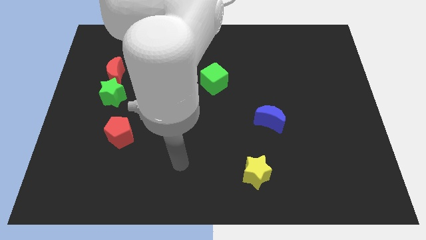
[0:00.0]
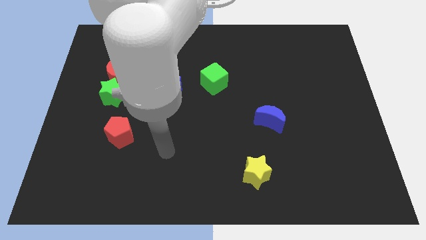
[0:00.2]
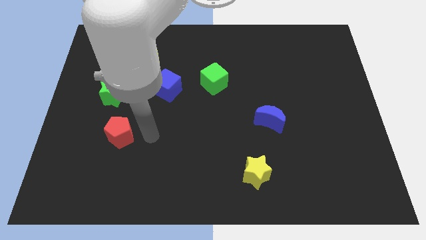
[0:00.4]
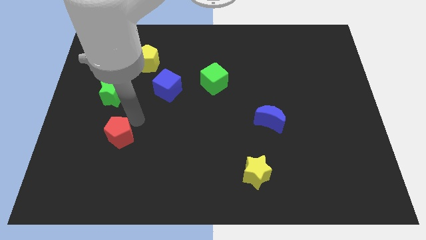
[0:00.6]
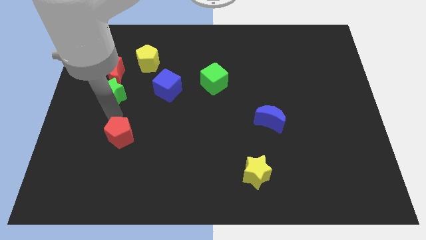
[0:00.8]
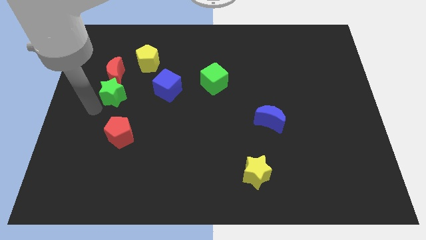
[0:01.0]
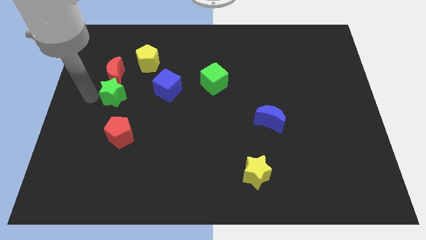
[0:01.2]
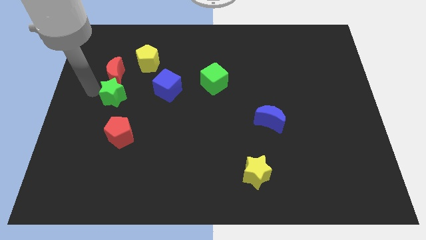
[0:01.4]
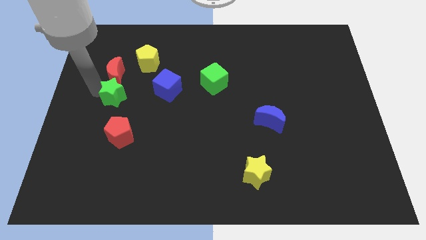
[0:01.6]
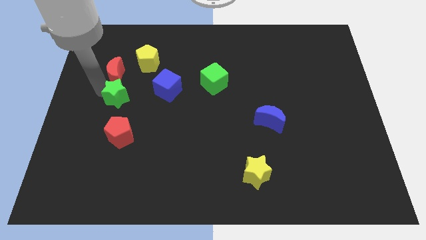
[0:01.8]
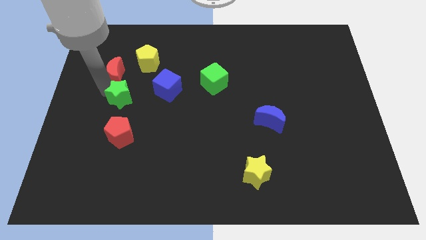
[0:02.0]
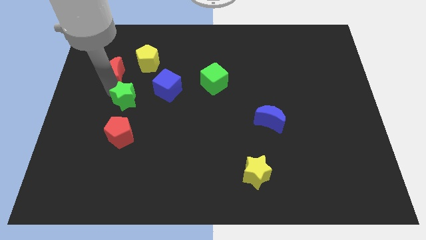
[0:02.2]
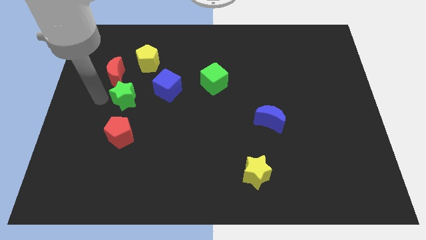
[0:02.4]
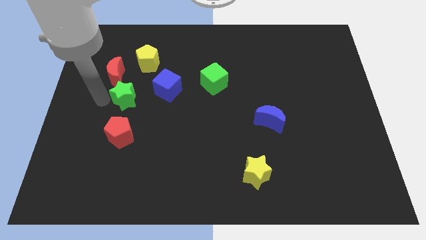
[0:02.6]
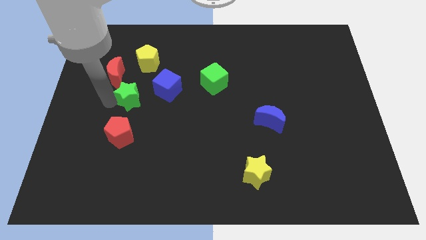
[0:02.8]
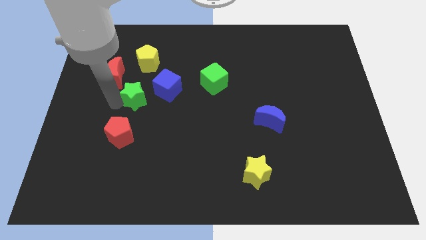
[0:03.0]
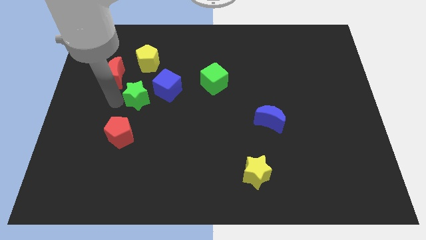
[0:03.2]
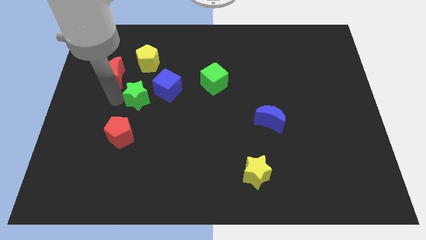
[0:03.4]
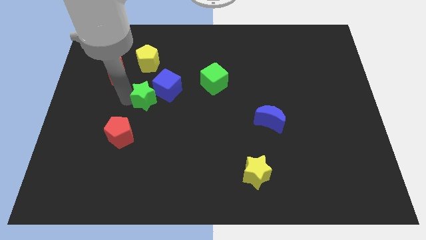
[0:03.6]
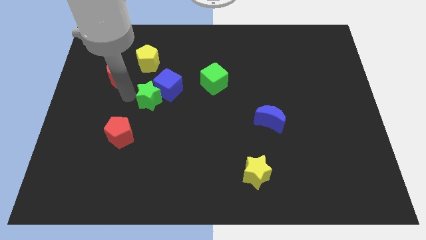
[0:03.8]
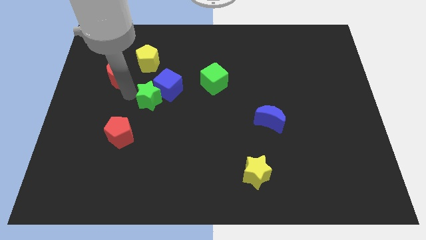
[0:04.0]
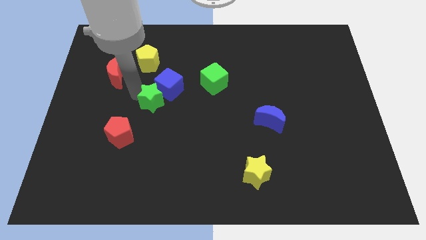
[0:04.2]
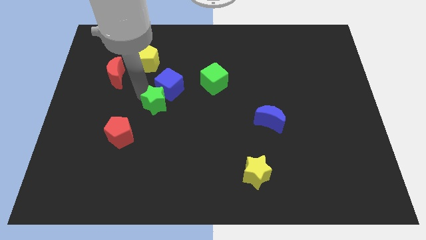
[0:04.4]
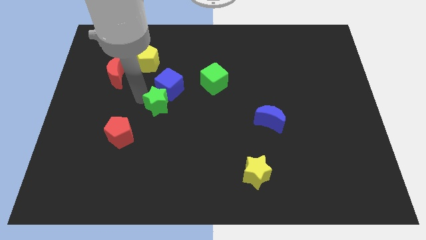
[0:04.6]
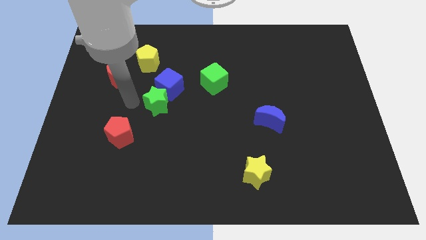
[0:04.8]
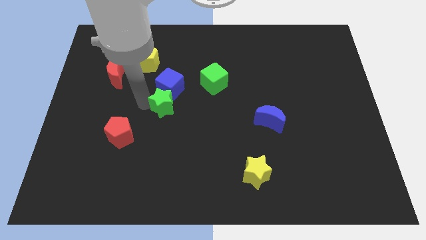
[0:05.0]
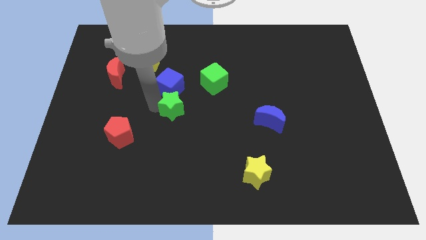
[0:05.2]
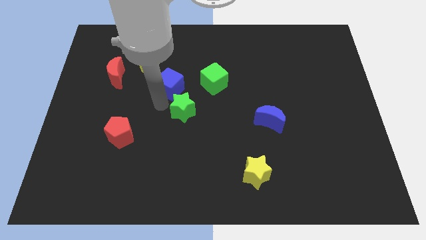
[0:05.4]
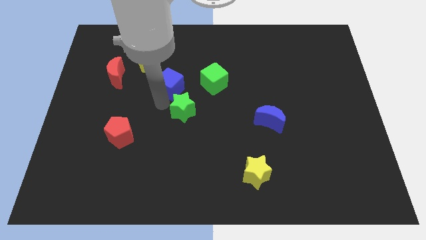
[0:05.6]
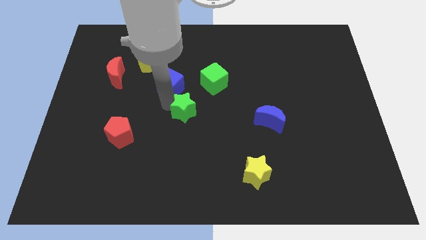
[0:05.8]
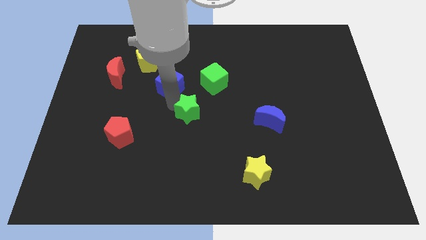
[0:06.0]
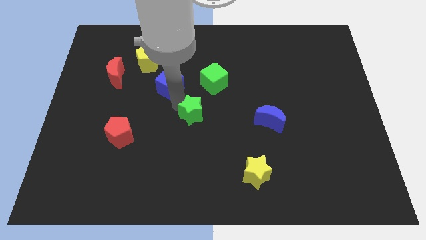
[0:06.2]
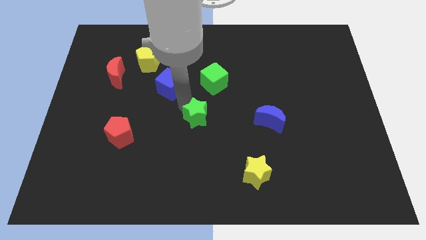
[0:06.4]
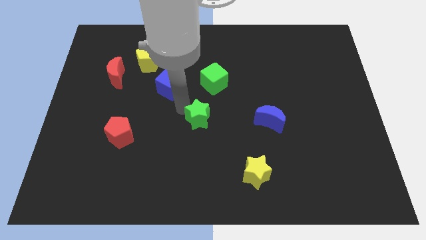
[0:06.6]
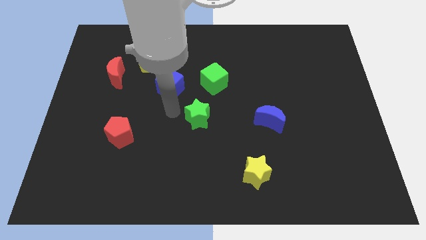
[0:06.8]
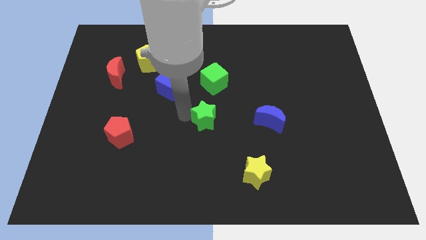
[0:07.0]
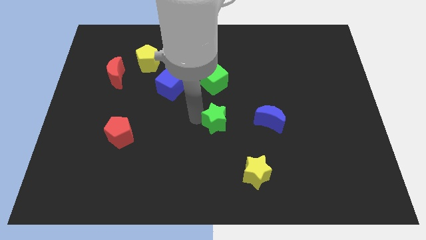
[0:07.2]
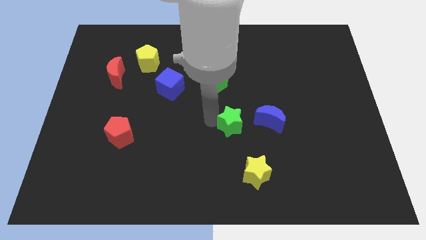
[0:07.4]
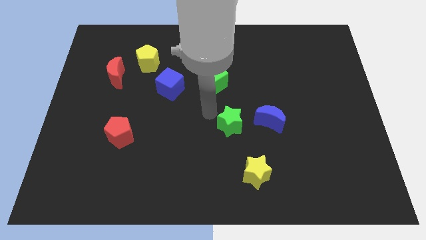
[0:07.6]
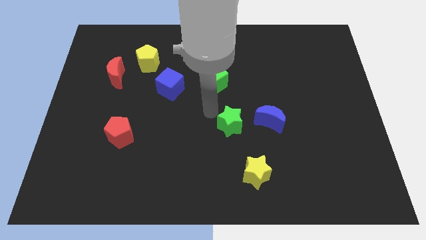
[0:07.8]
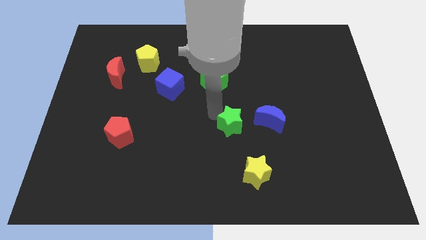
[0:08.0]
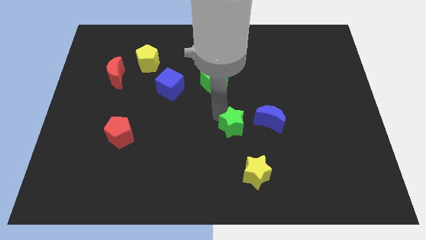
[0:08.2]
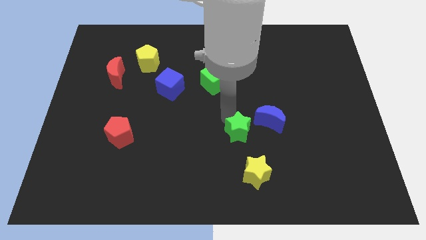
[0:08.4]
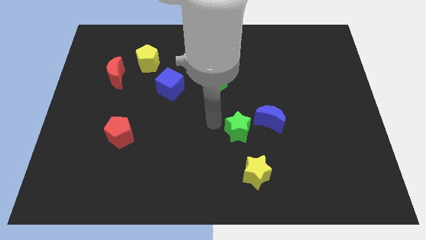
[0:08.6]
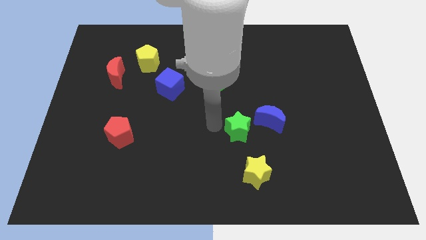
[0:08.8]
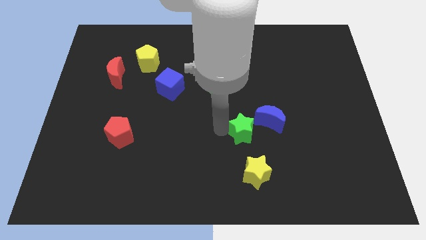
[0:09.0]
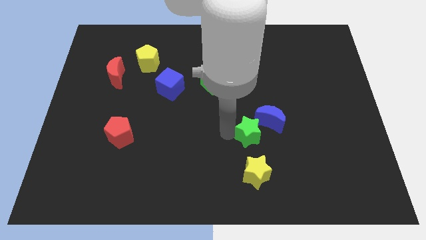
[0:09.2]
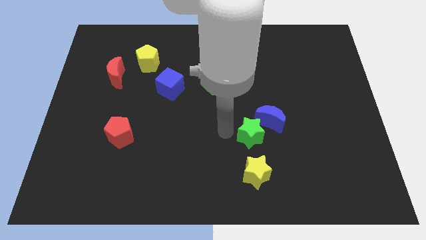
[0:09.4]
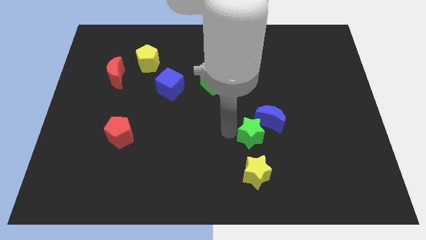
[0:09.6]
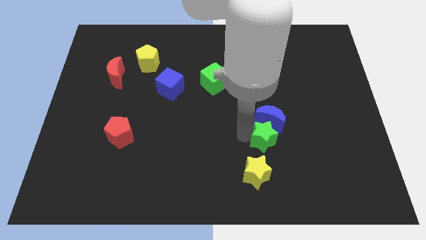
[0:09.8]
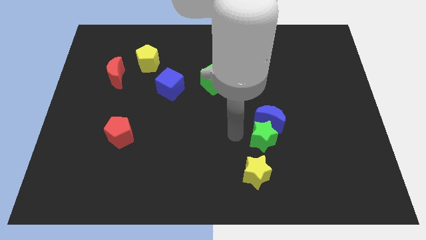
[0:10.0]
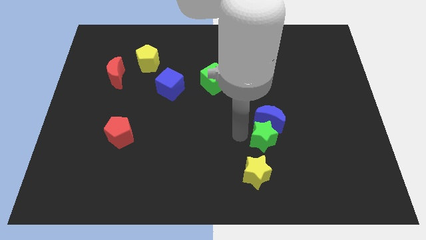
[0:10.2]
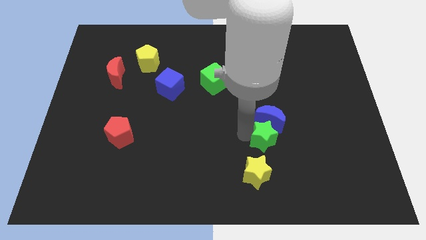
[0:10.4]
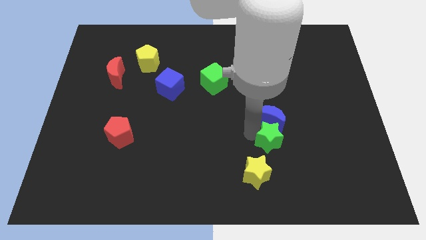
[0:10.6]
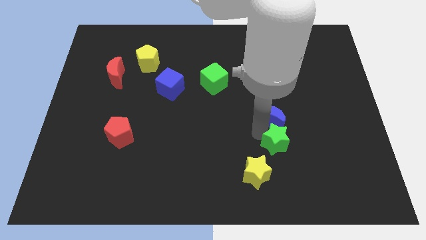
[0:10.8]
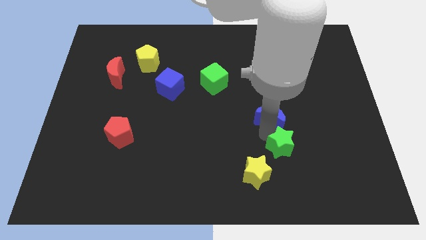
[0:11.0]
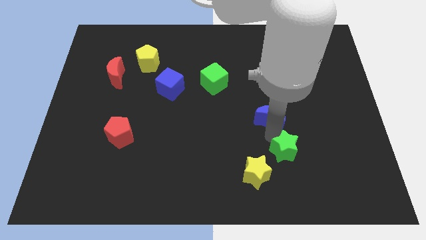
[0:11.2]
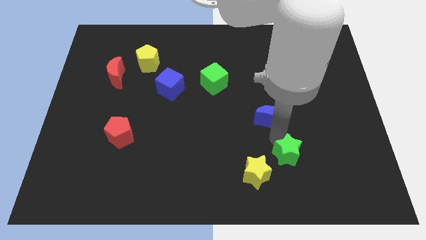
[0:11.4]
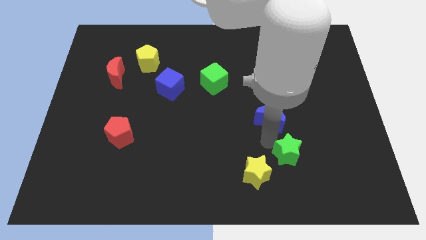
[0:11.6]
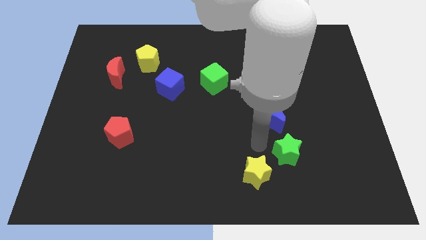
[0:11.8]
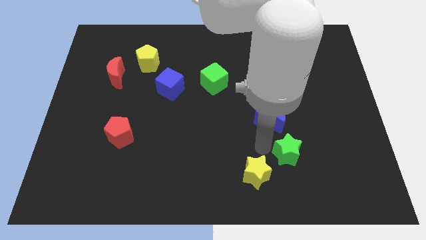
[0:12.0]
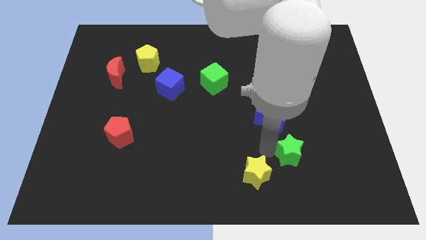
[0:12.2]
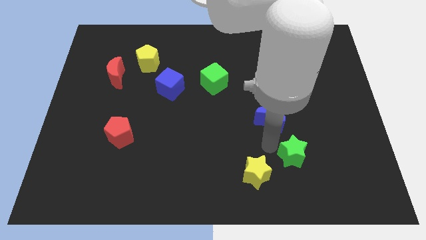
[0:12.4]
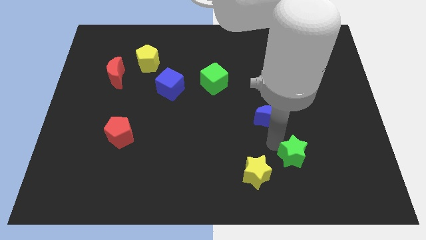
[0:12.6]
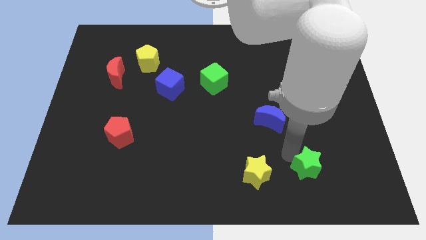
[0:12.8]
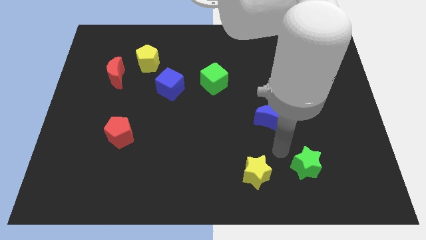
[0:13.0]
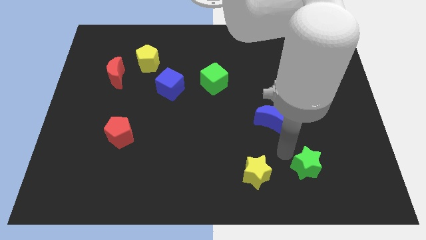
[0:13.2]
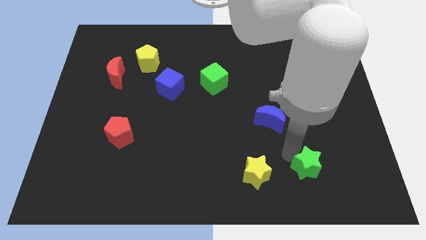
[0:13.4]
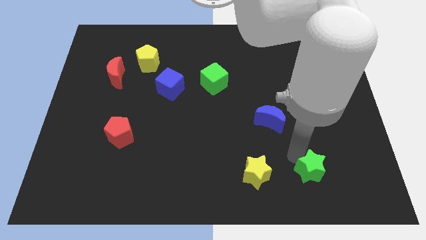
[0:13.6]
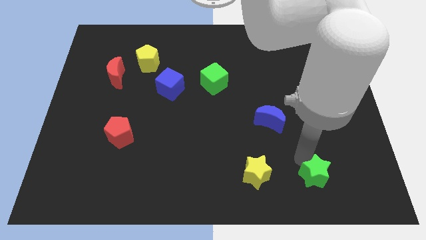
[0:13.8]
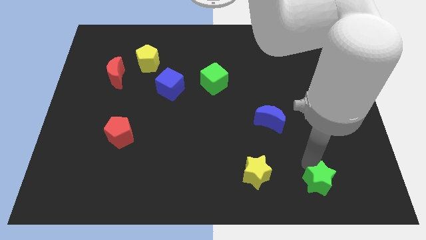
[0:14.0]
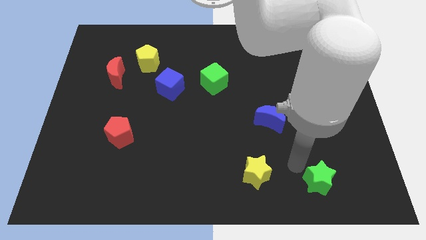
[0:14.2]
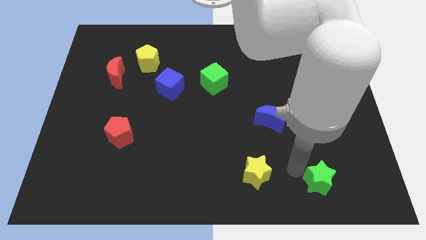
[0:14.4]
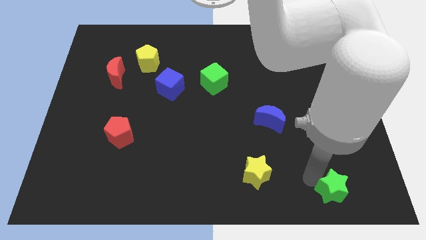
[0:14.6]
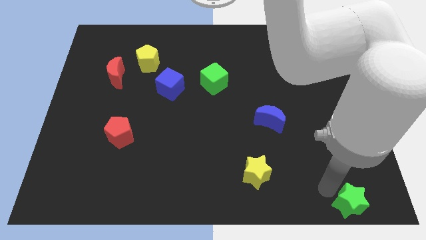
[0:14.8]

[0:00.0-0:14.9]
put the green star to the bottom right of the board
